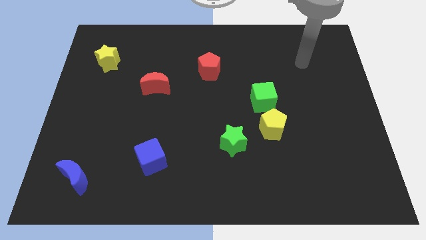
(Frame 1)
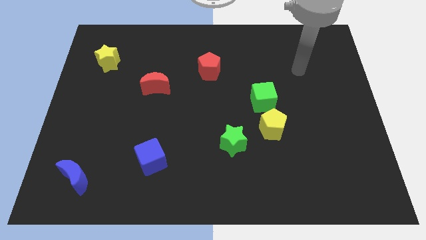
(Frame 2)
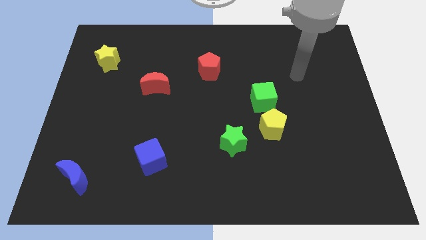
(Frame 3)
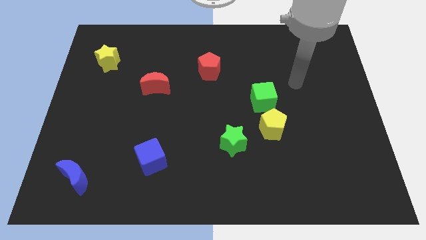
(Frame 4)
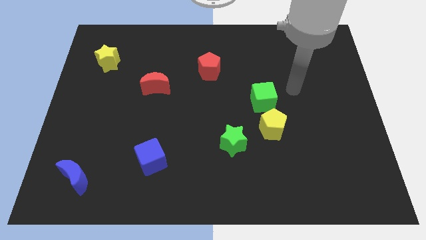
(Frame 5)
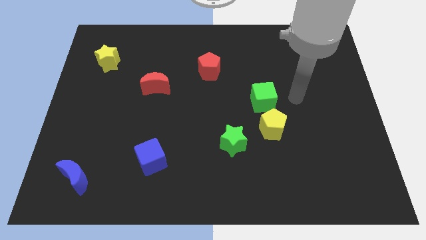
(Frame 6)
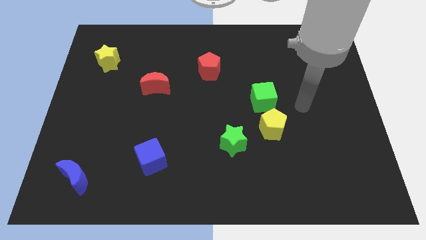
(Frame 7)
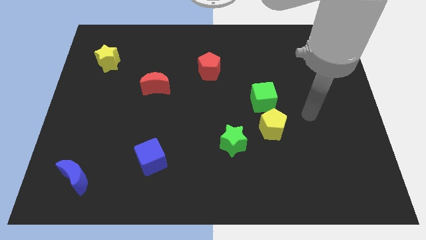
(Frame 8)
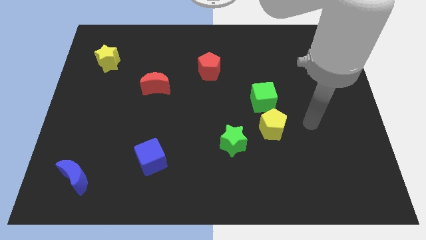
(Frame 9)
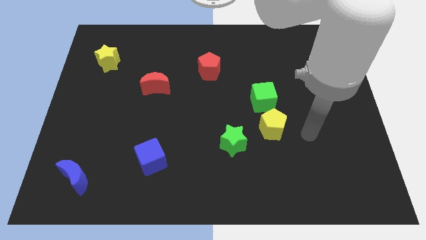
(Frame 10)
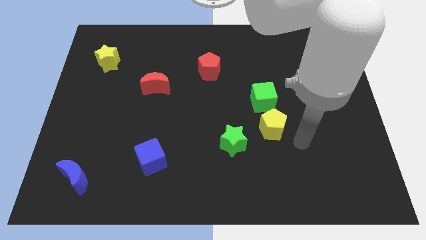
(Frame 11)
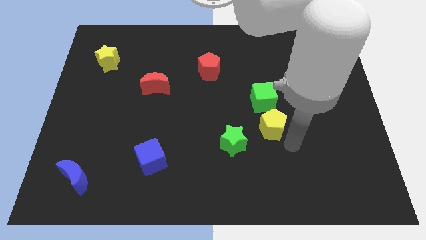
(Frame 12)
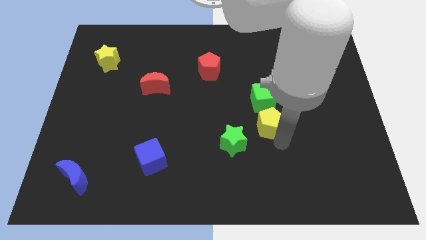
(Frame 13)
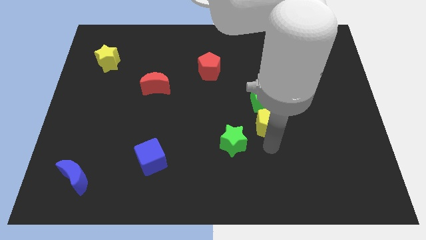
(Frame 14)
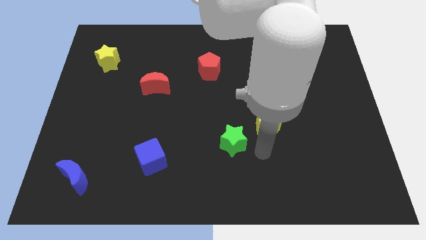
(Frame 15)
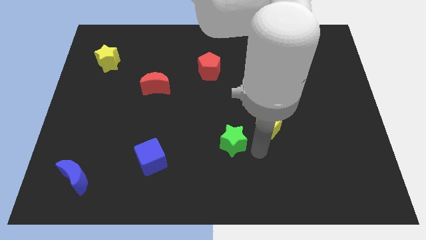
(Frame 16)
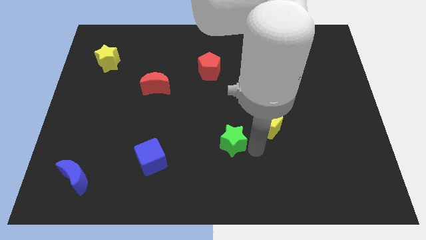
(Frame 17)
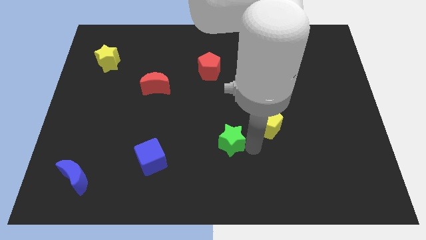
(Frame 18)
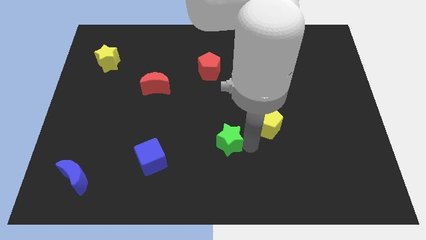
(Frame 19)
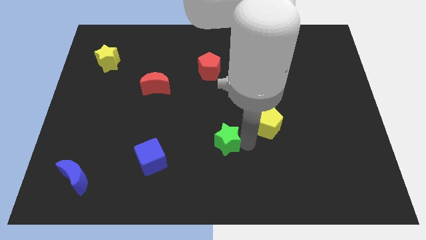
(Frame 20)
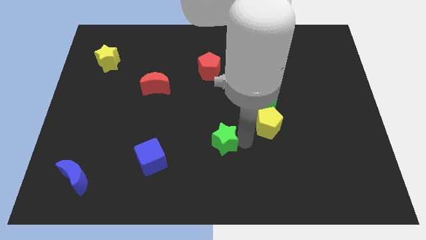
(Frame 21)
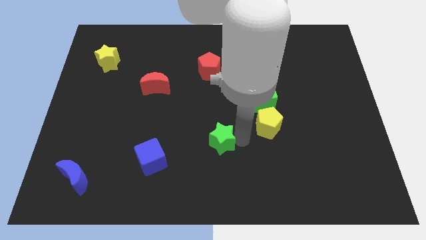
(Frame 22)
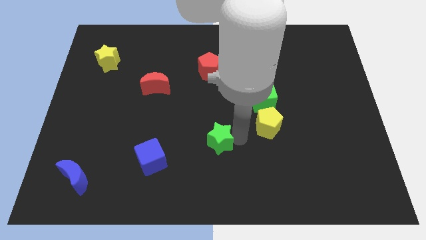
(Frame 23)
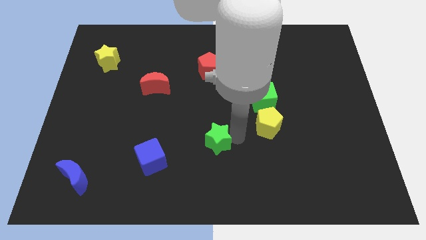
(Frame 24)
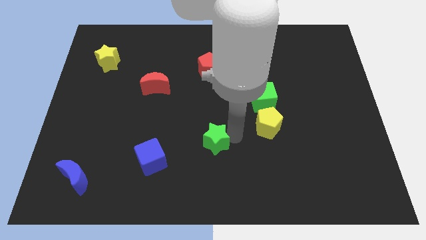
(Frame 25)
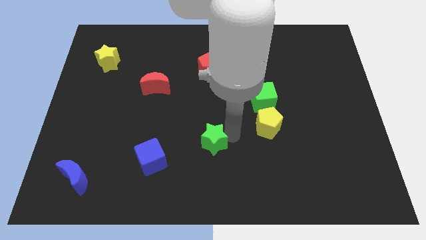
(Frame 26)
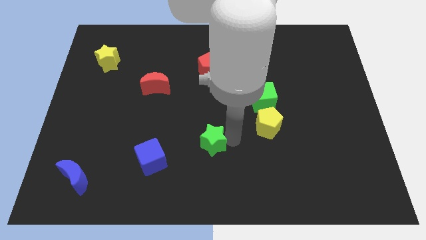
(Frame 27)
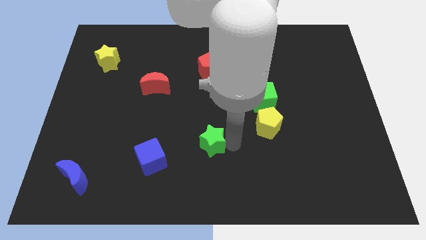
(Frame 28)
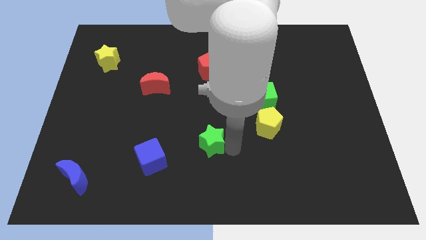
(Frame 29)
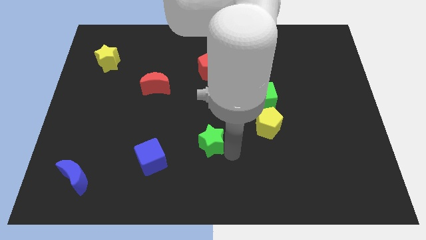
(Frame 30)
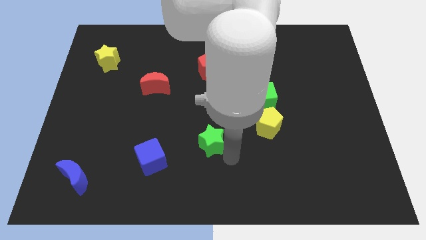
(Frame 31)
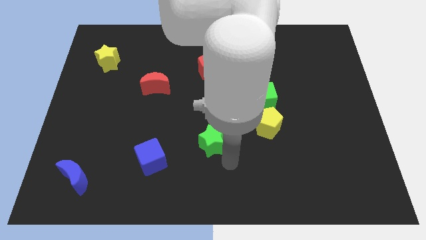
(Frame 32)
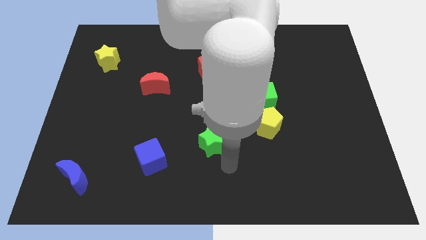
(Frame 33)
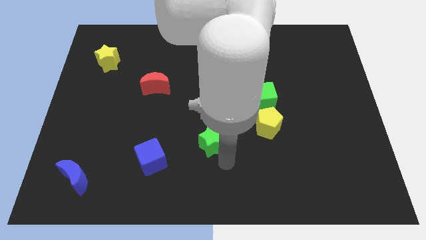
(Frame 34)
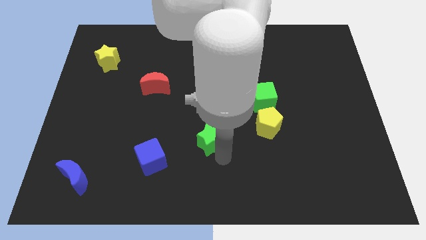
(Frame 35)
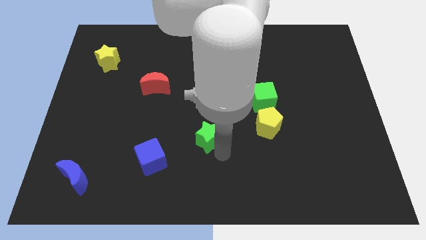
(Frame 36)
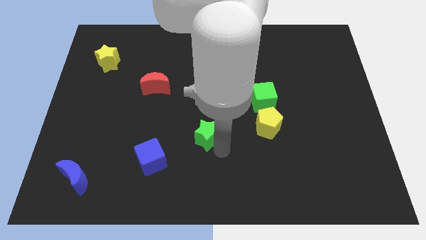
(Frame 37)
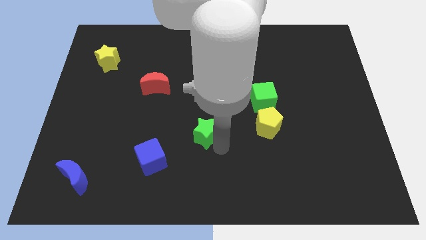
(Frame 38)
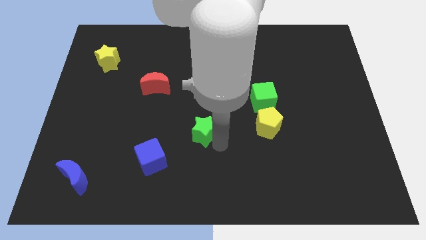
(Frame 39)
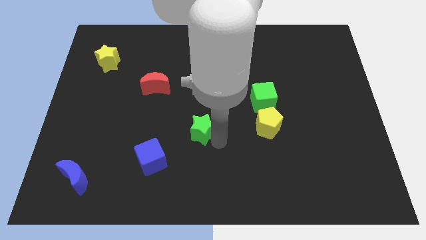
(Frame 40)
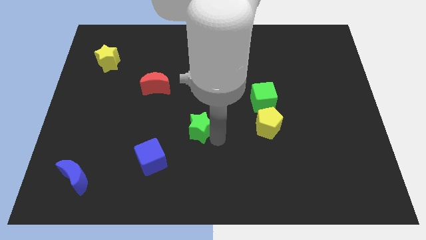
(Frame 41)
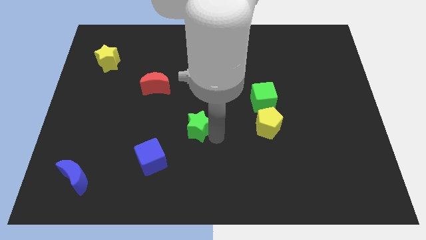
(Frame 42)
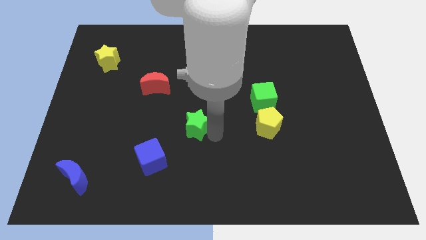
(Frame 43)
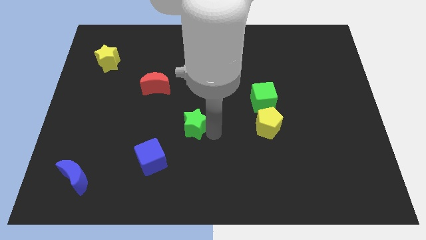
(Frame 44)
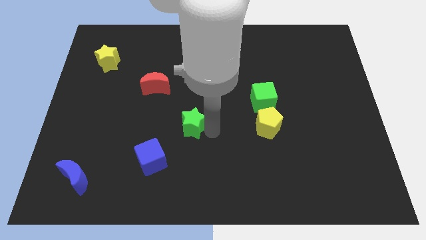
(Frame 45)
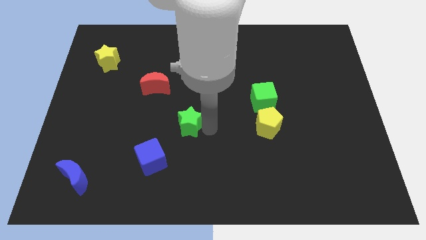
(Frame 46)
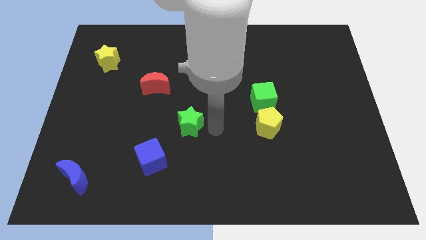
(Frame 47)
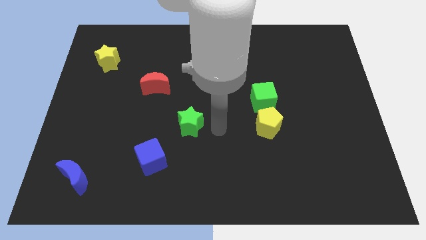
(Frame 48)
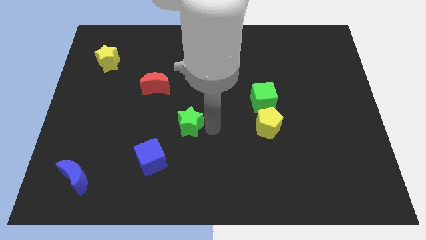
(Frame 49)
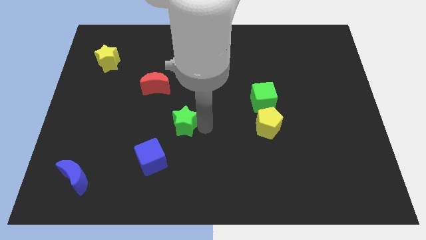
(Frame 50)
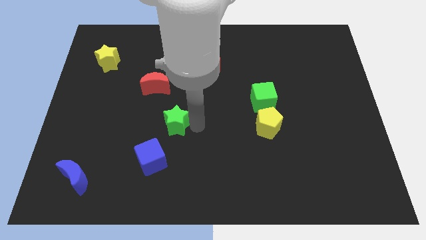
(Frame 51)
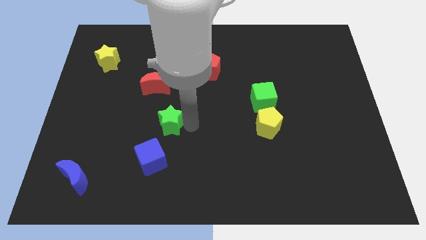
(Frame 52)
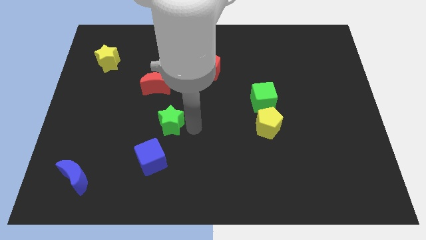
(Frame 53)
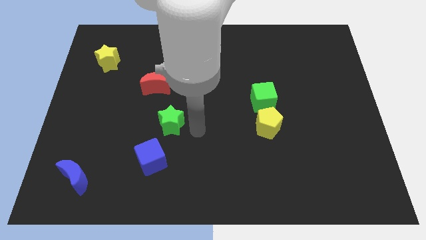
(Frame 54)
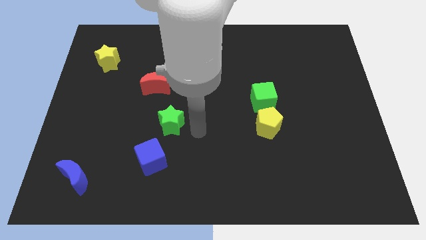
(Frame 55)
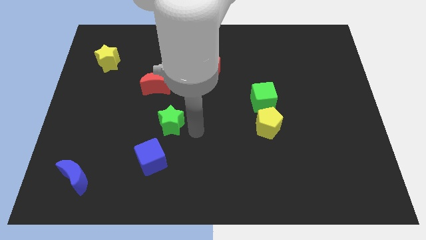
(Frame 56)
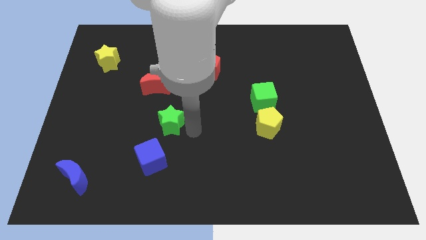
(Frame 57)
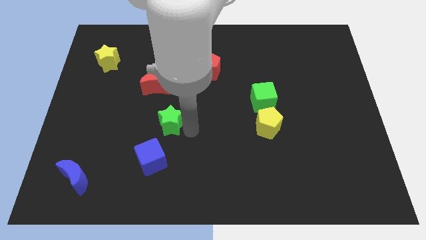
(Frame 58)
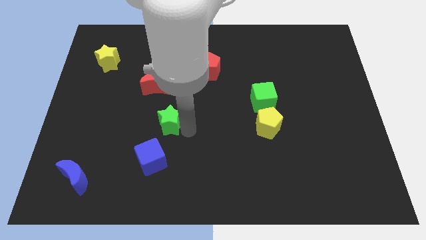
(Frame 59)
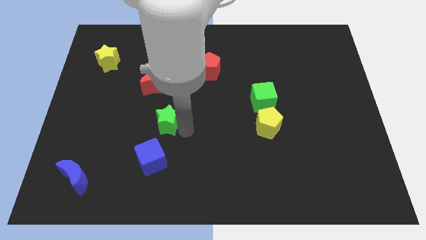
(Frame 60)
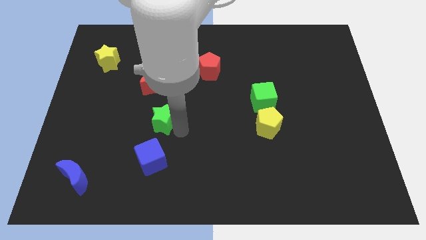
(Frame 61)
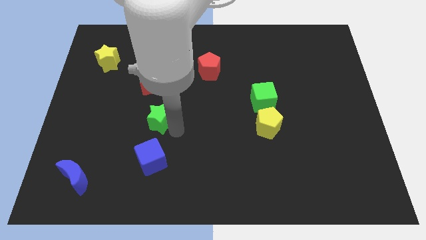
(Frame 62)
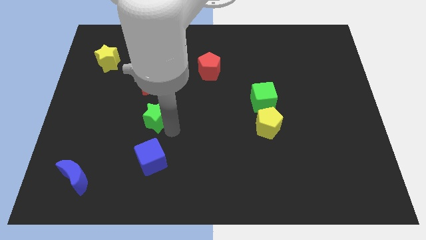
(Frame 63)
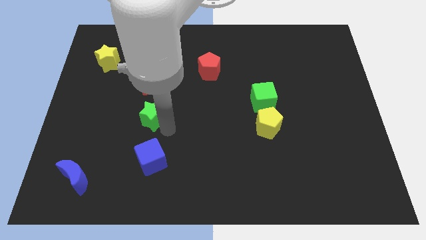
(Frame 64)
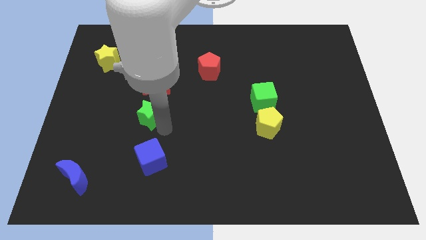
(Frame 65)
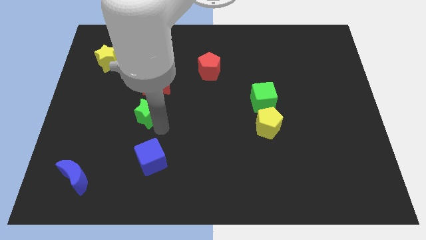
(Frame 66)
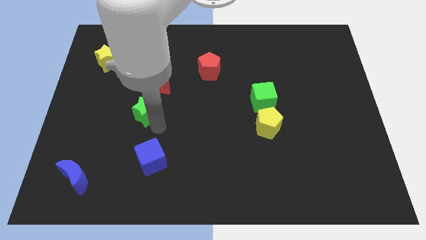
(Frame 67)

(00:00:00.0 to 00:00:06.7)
push the green star to the bottom left of the red moon

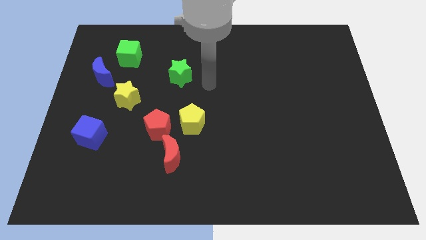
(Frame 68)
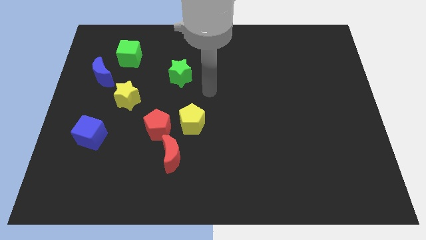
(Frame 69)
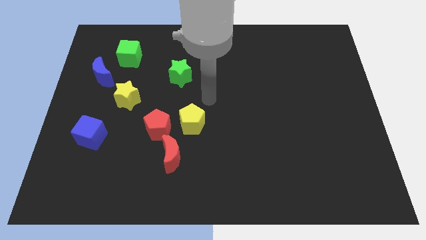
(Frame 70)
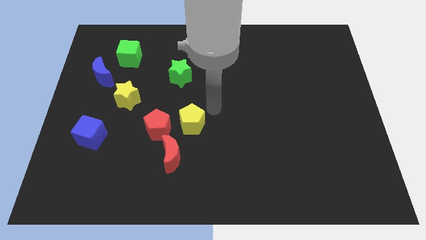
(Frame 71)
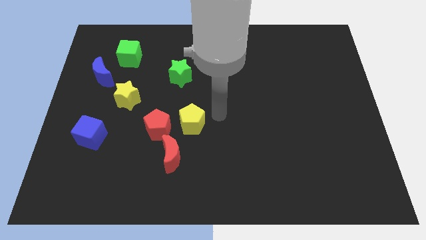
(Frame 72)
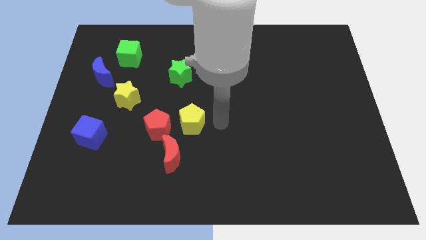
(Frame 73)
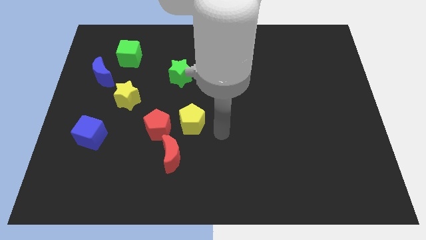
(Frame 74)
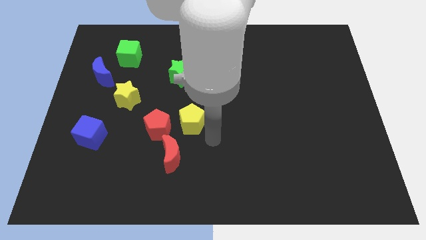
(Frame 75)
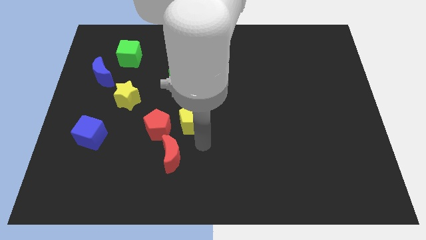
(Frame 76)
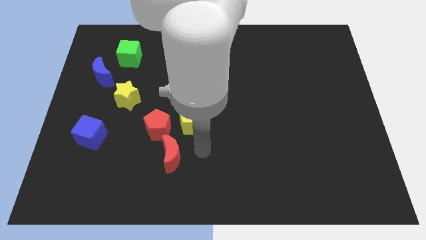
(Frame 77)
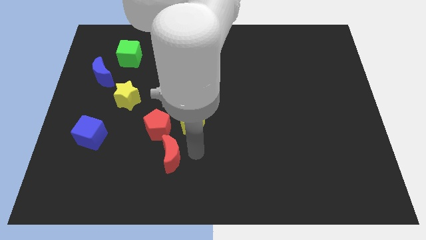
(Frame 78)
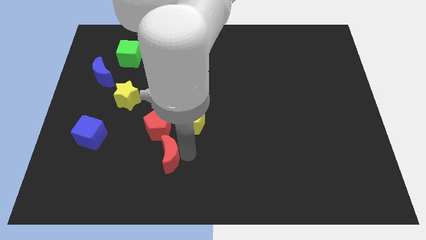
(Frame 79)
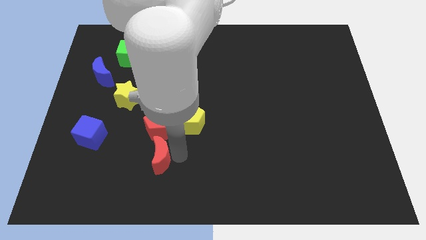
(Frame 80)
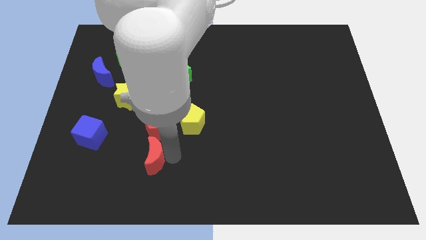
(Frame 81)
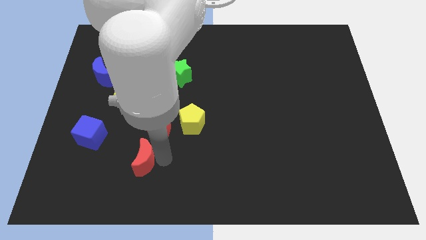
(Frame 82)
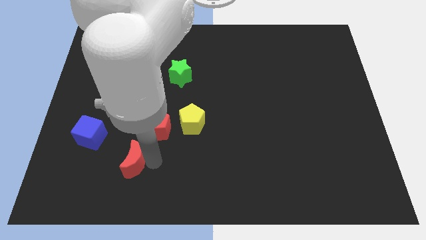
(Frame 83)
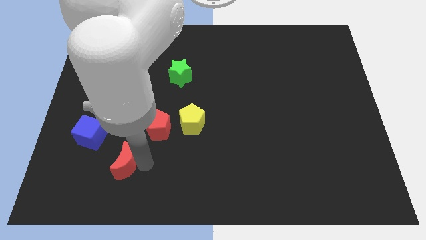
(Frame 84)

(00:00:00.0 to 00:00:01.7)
put the red moon diagonally down and to the right of the blue cube
